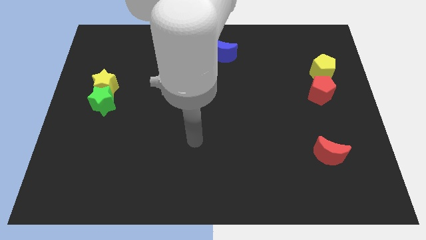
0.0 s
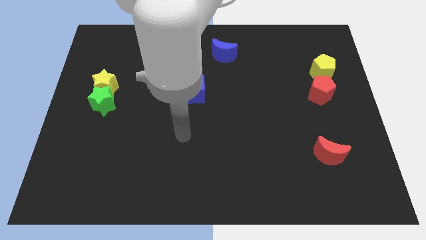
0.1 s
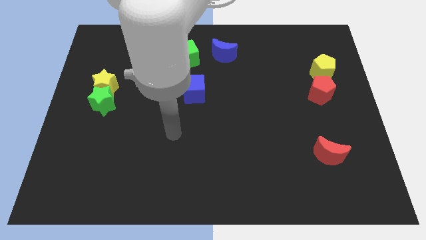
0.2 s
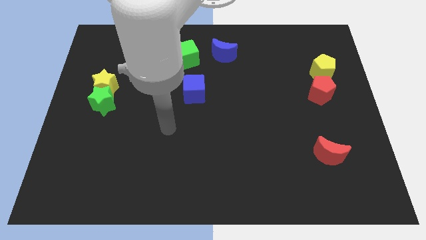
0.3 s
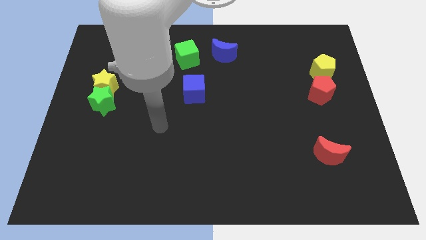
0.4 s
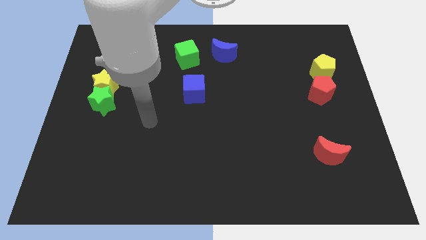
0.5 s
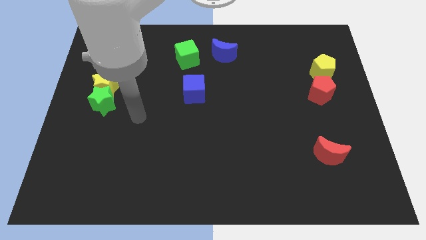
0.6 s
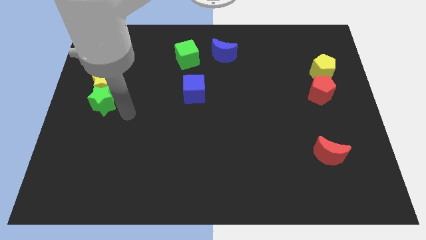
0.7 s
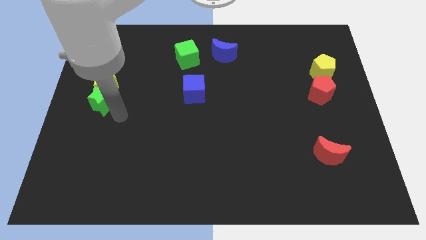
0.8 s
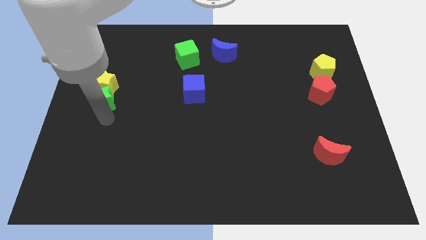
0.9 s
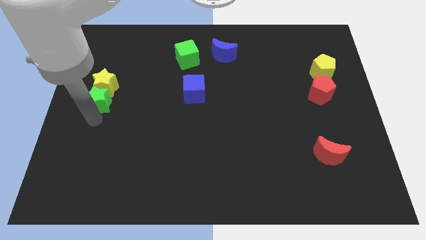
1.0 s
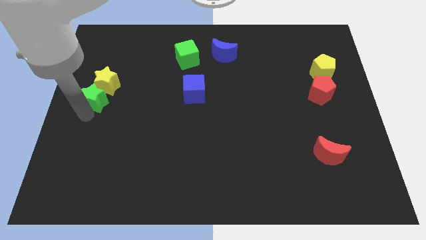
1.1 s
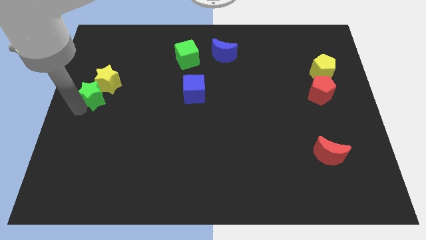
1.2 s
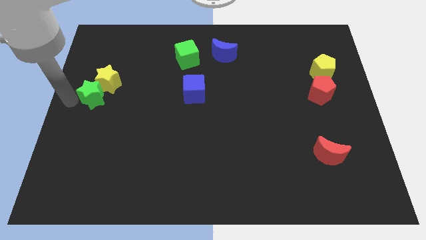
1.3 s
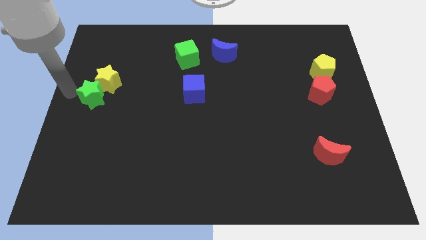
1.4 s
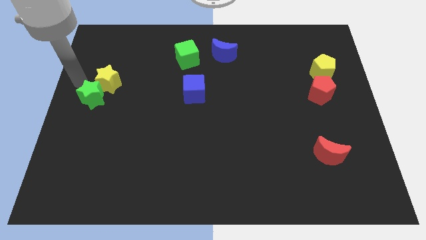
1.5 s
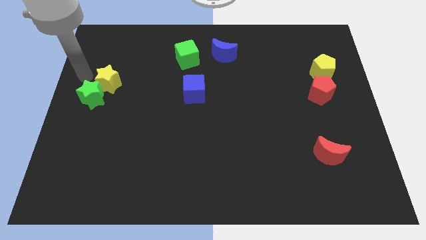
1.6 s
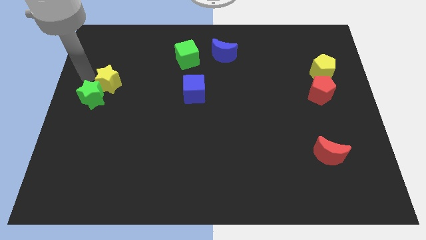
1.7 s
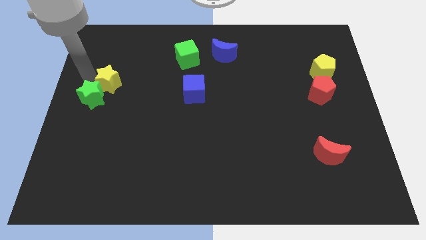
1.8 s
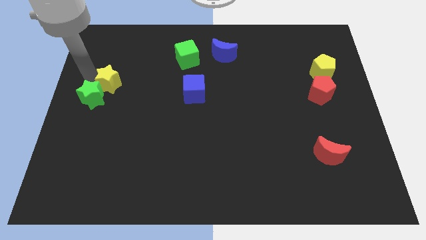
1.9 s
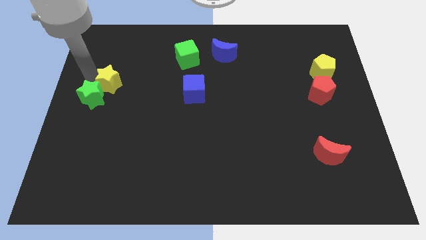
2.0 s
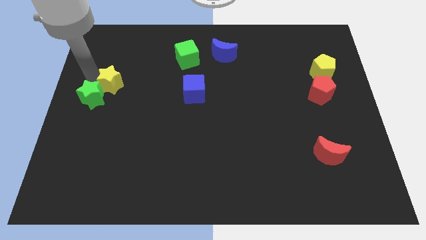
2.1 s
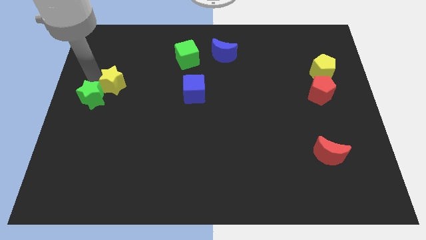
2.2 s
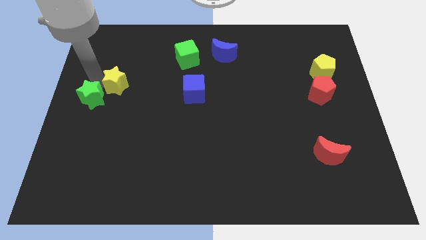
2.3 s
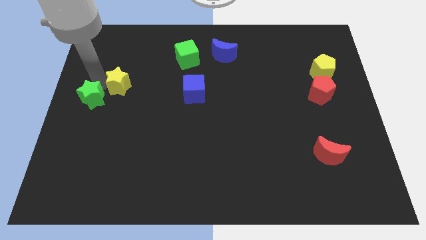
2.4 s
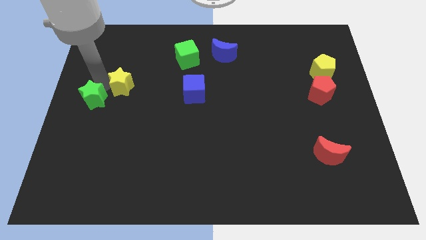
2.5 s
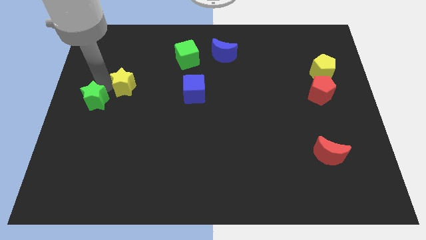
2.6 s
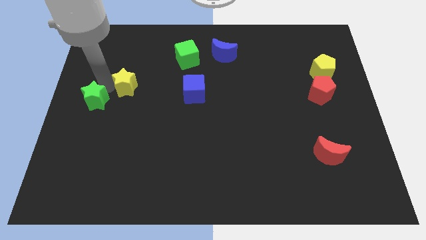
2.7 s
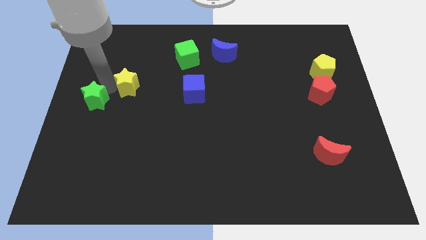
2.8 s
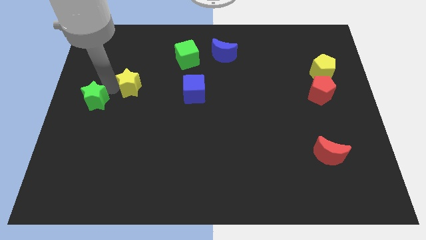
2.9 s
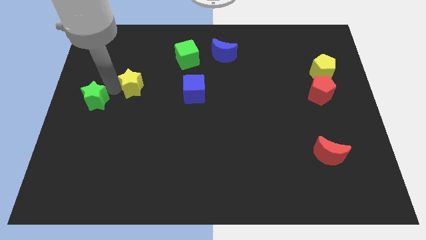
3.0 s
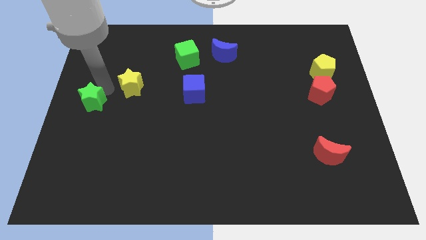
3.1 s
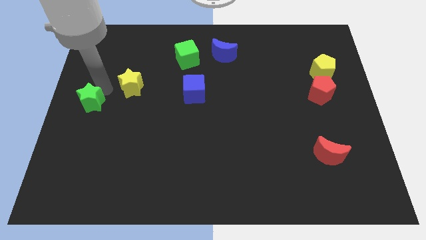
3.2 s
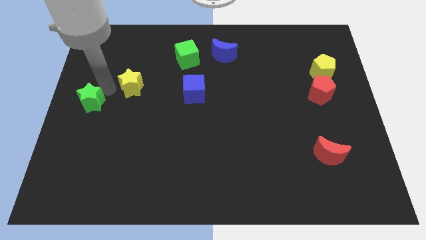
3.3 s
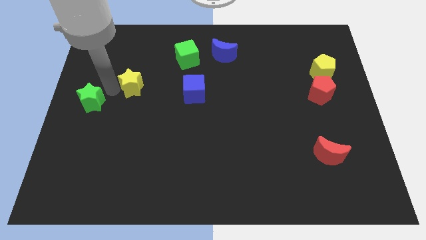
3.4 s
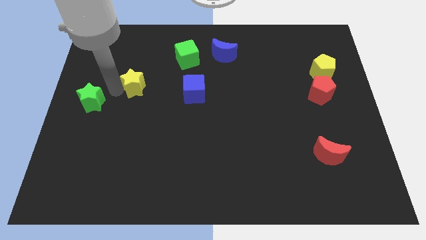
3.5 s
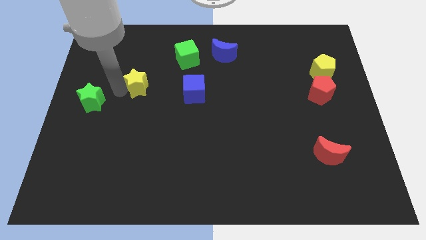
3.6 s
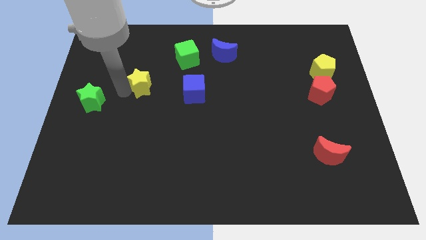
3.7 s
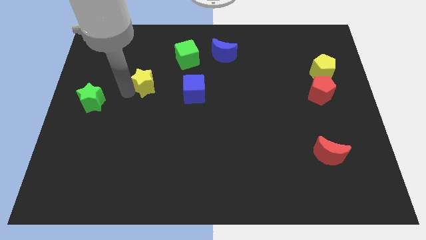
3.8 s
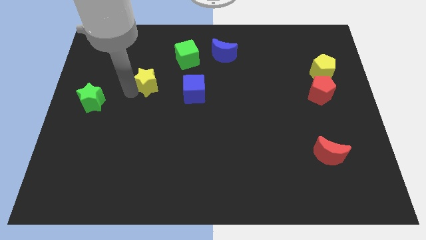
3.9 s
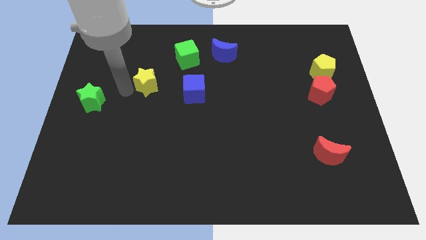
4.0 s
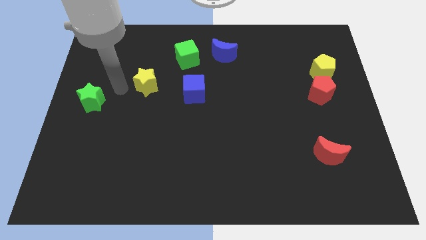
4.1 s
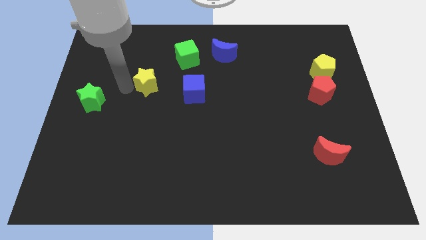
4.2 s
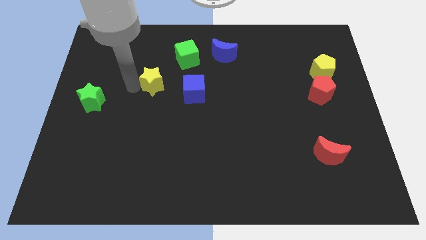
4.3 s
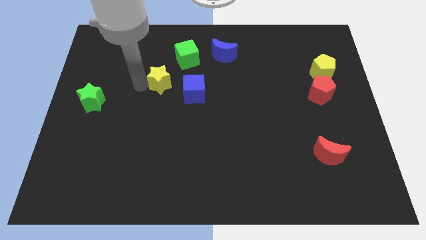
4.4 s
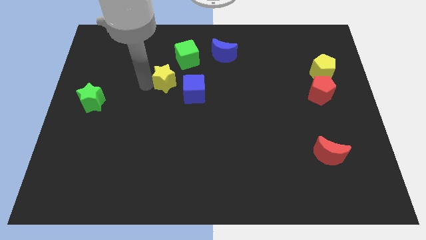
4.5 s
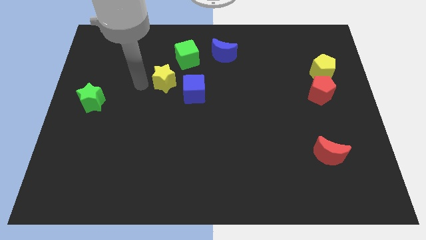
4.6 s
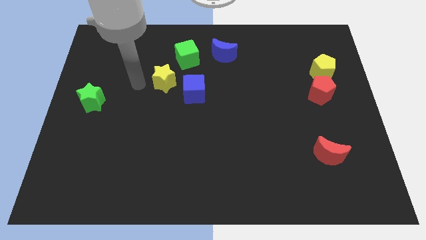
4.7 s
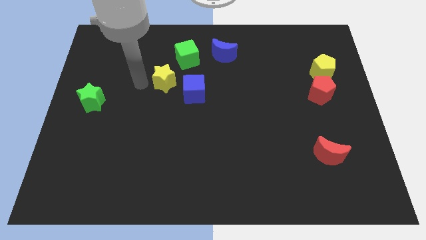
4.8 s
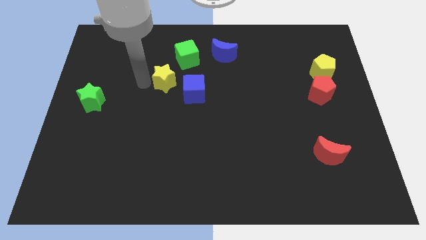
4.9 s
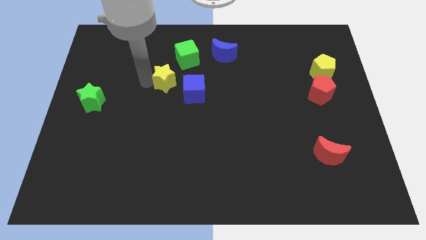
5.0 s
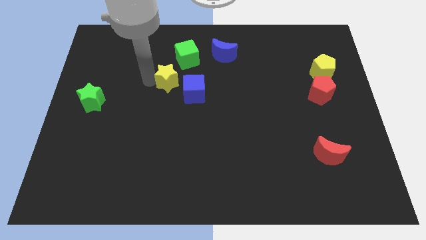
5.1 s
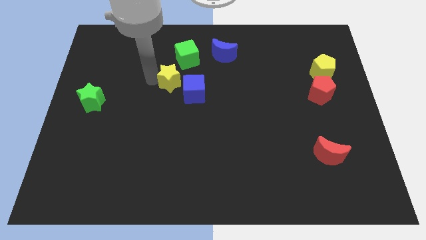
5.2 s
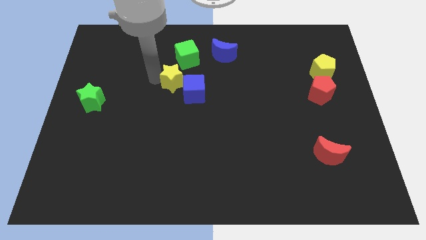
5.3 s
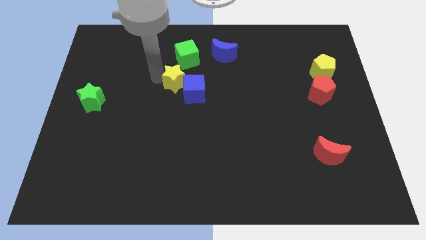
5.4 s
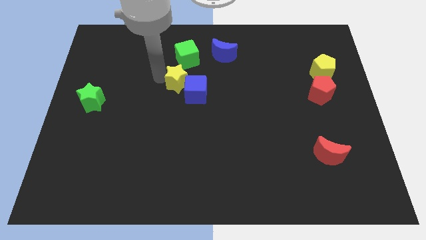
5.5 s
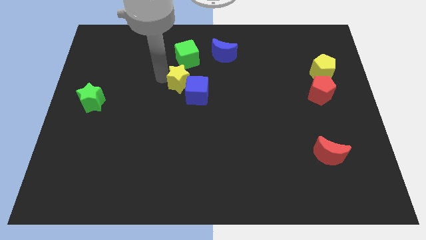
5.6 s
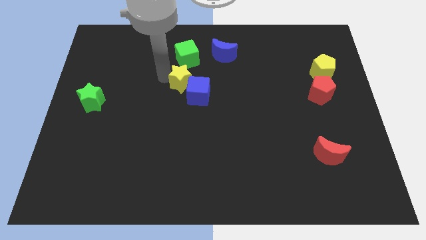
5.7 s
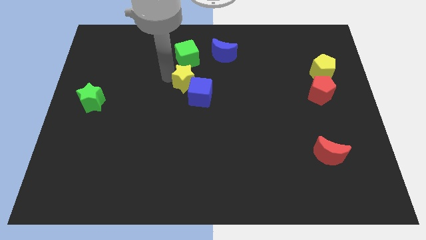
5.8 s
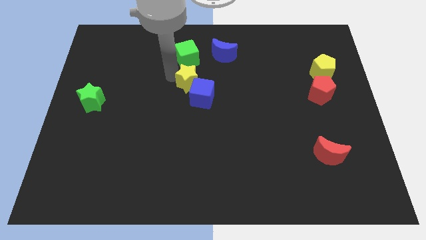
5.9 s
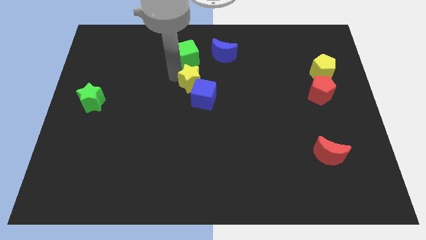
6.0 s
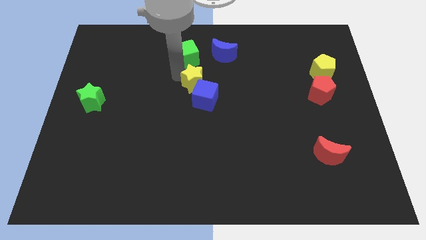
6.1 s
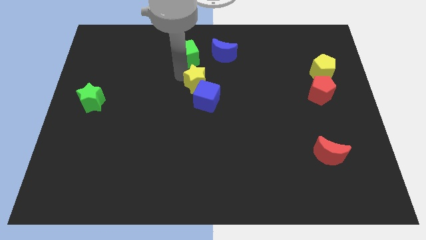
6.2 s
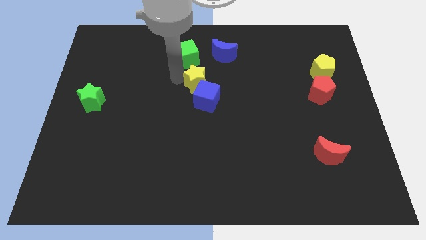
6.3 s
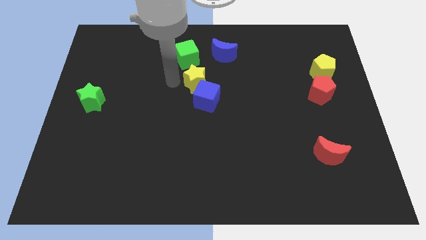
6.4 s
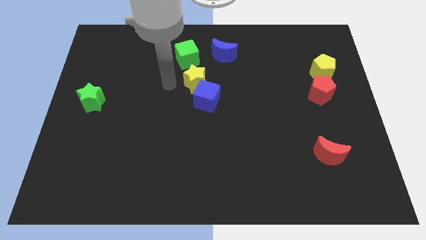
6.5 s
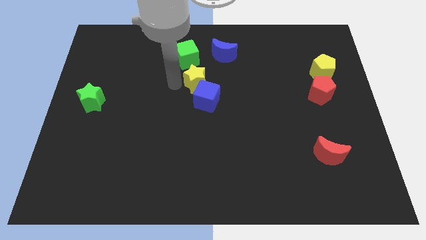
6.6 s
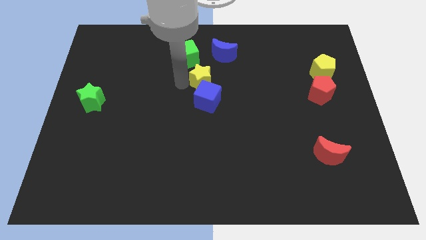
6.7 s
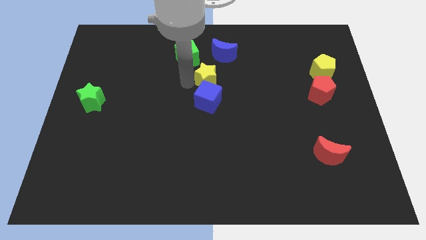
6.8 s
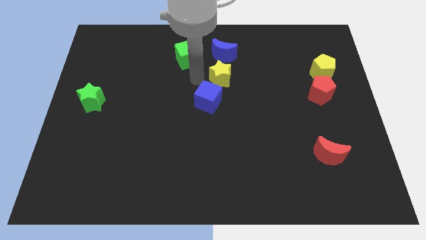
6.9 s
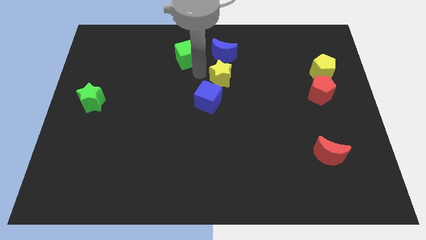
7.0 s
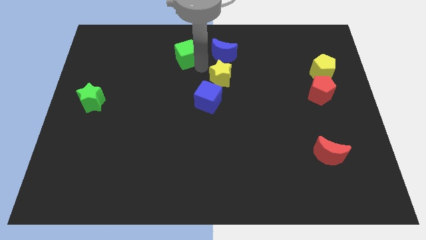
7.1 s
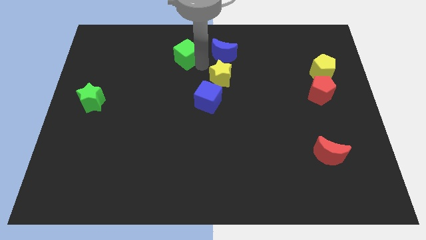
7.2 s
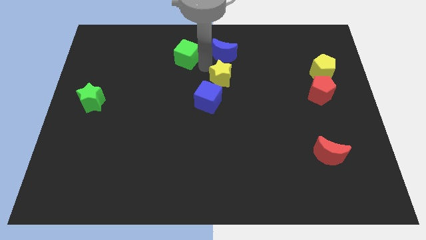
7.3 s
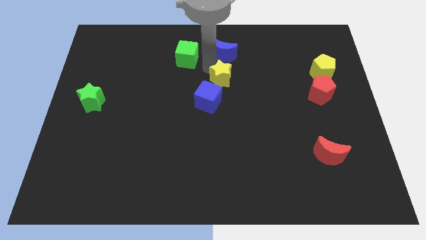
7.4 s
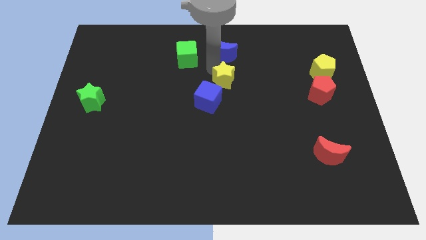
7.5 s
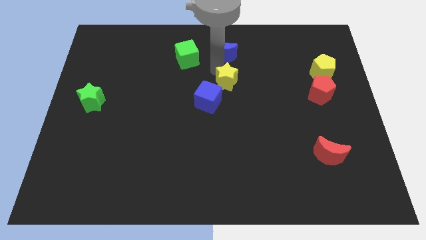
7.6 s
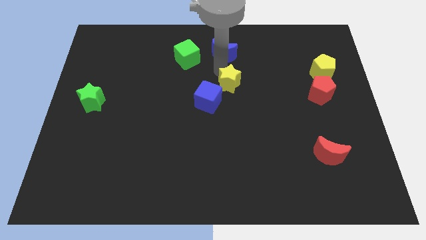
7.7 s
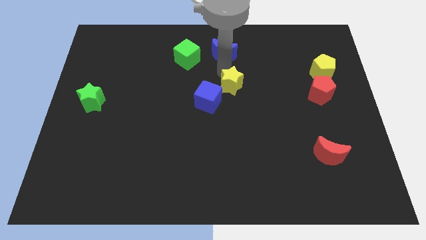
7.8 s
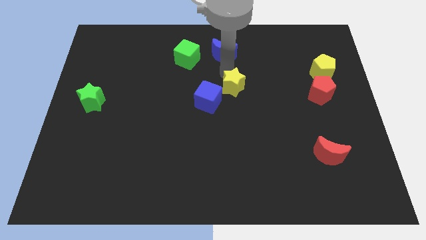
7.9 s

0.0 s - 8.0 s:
push the yellow star to the right side of the blue cube
